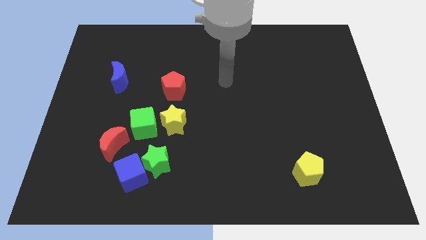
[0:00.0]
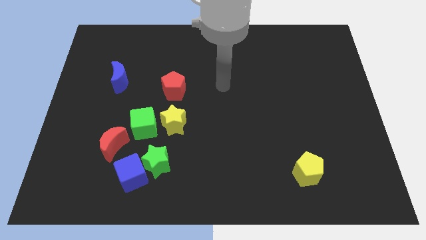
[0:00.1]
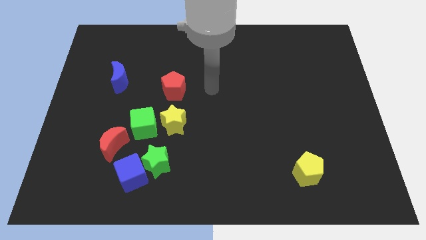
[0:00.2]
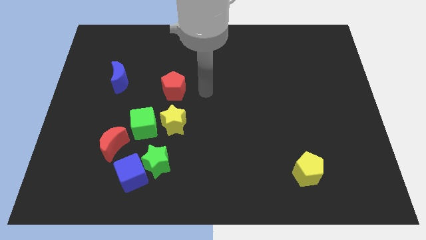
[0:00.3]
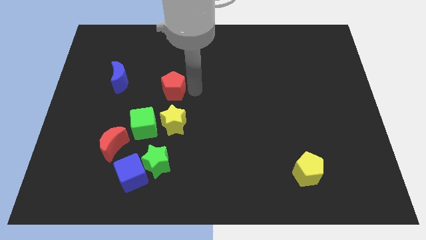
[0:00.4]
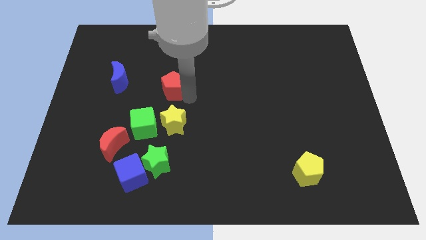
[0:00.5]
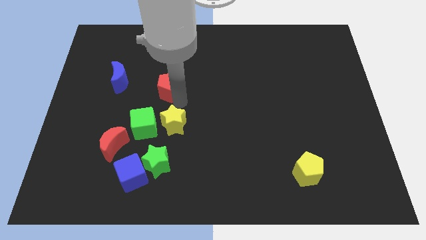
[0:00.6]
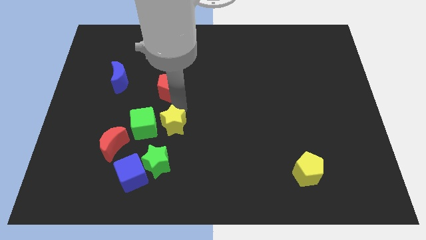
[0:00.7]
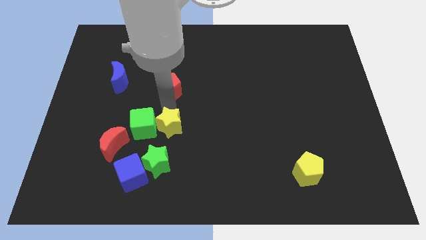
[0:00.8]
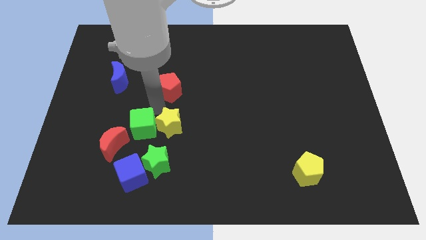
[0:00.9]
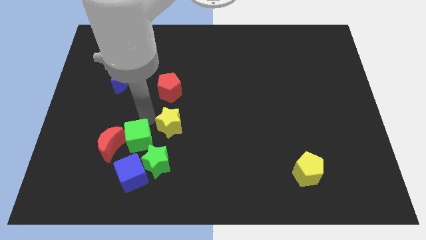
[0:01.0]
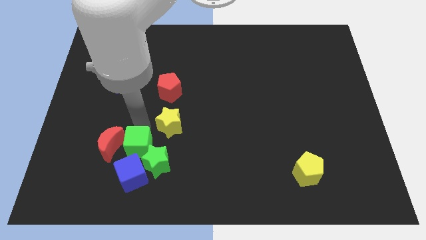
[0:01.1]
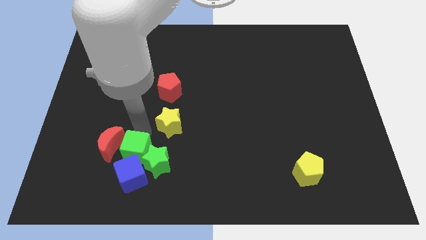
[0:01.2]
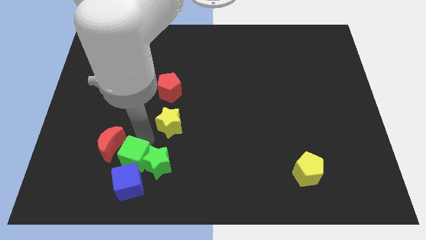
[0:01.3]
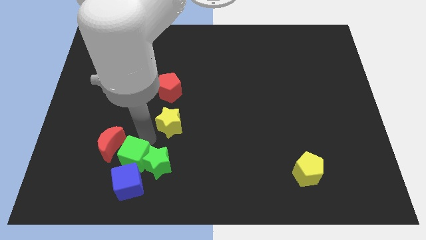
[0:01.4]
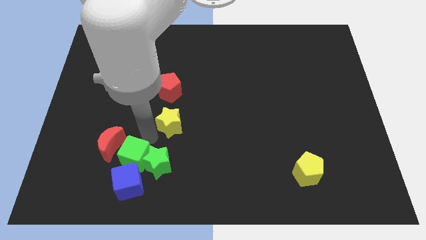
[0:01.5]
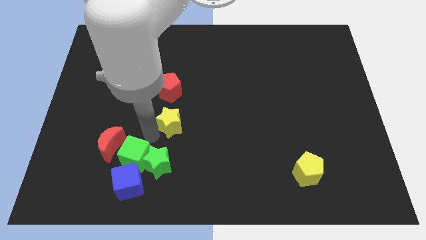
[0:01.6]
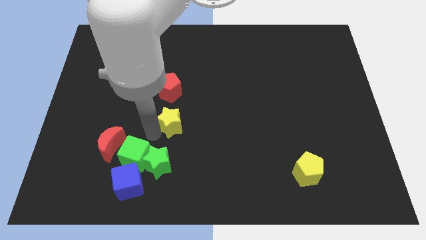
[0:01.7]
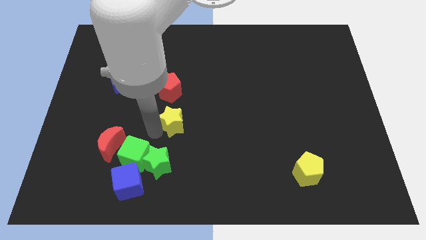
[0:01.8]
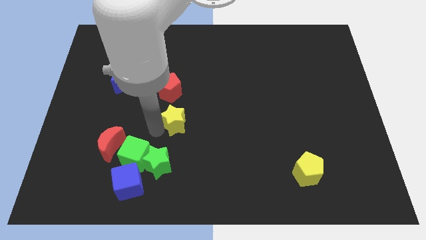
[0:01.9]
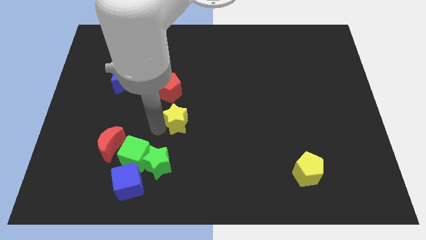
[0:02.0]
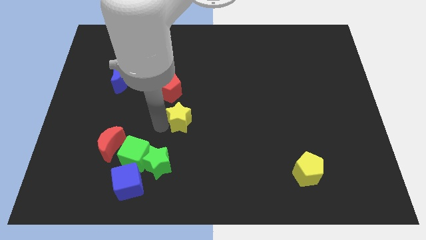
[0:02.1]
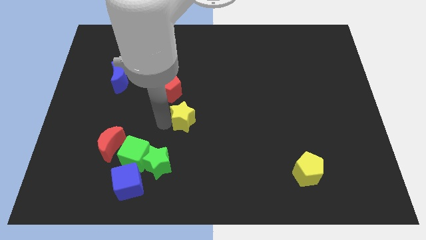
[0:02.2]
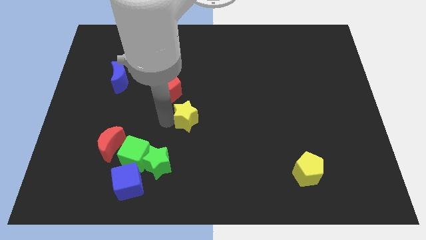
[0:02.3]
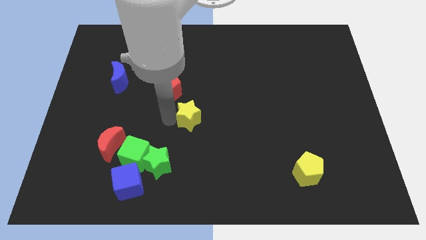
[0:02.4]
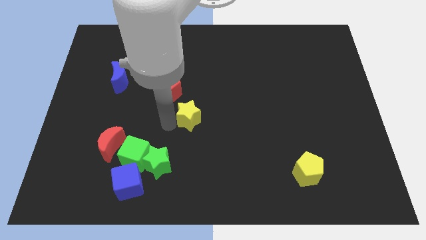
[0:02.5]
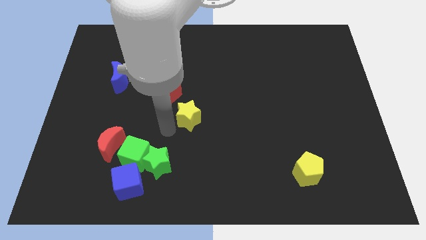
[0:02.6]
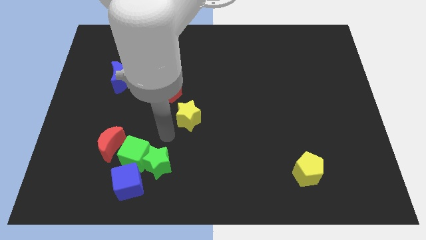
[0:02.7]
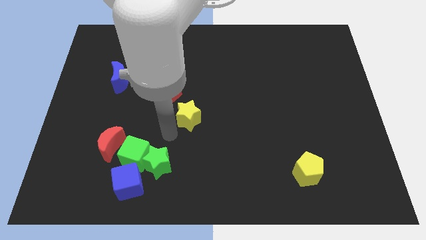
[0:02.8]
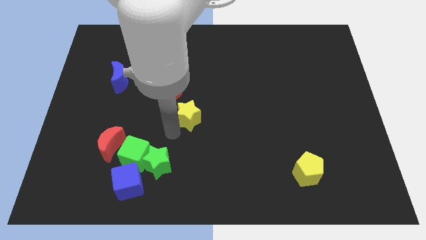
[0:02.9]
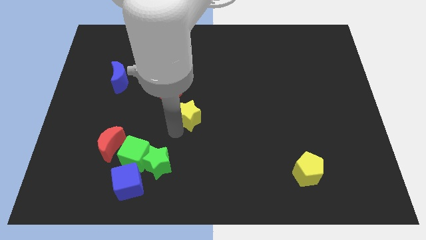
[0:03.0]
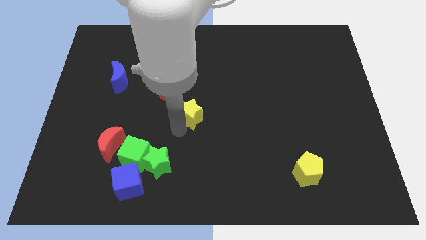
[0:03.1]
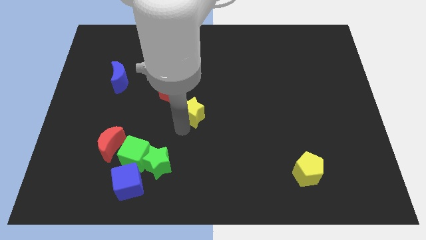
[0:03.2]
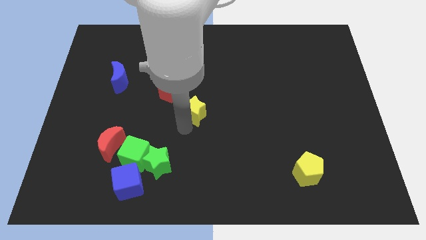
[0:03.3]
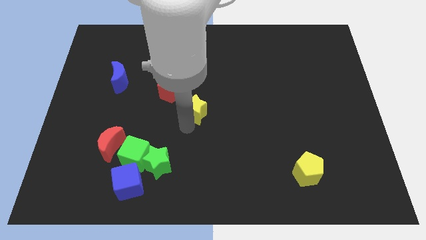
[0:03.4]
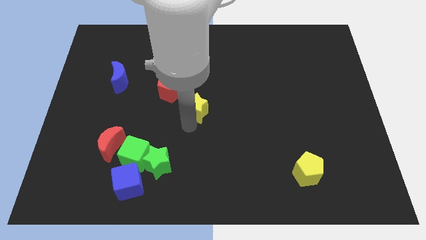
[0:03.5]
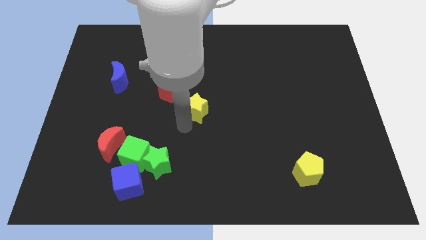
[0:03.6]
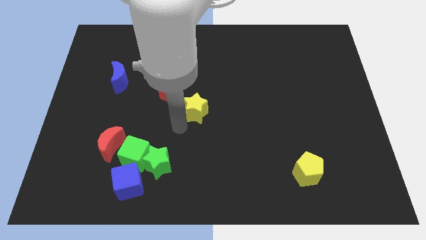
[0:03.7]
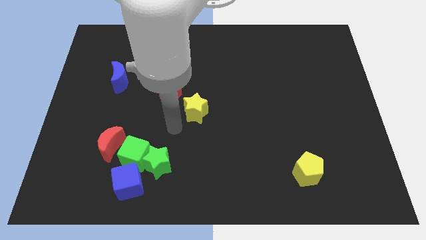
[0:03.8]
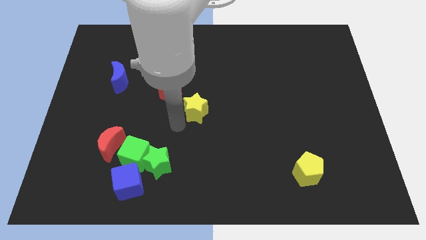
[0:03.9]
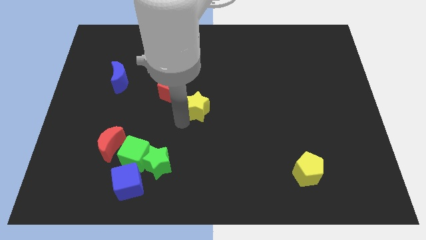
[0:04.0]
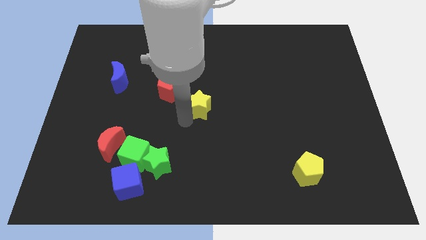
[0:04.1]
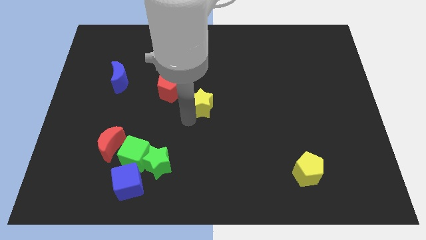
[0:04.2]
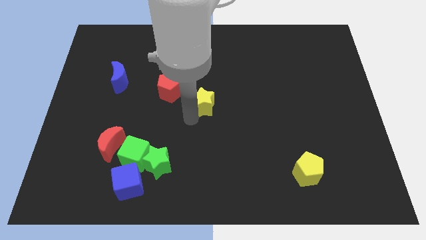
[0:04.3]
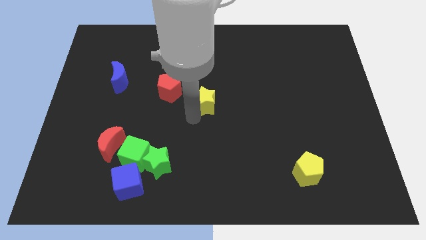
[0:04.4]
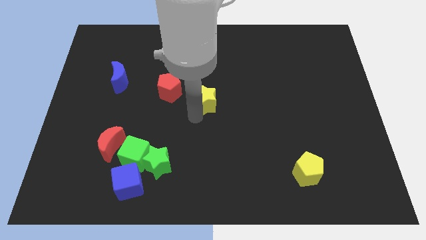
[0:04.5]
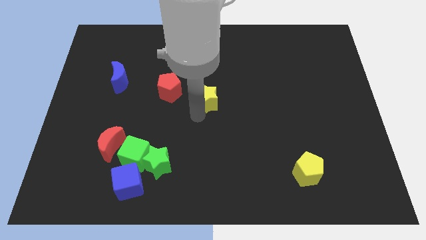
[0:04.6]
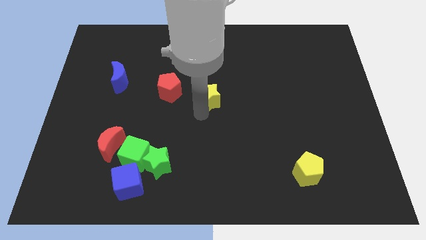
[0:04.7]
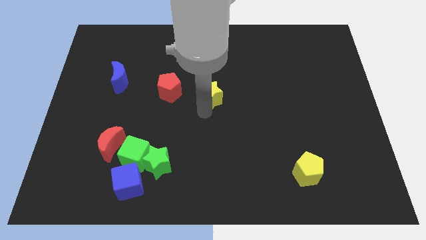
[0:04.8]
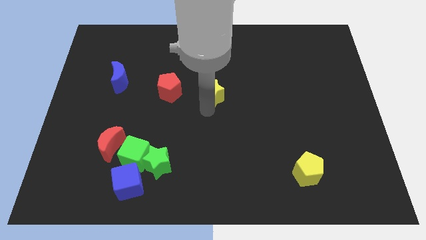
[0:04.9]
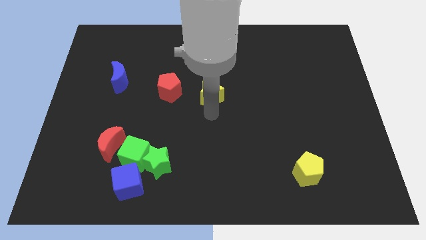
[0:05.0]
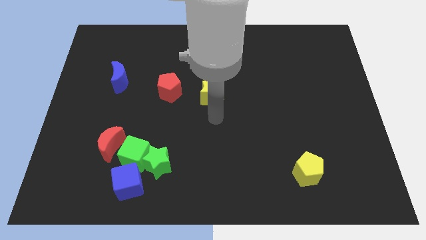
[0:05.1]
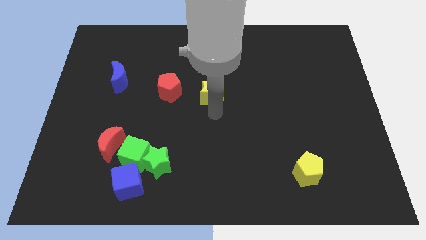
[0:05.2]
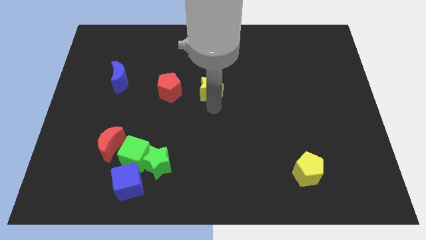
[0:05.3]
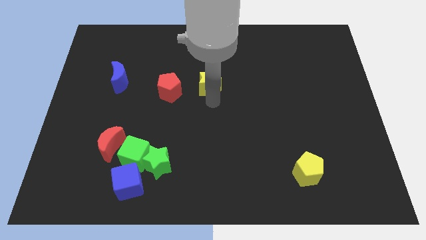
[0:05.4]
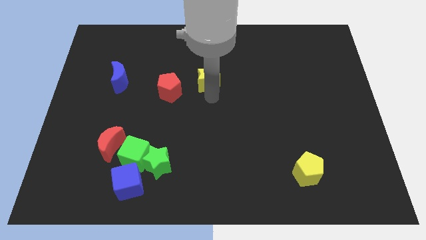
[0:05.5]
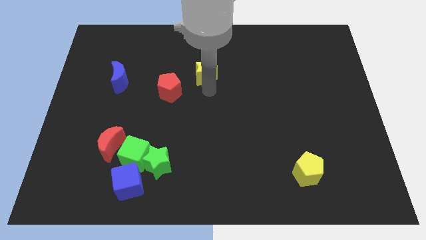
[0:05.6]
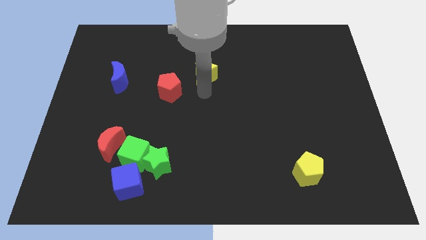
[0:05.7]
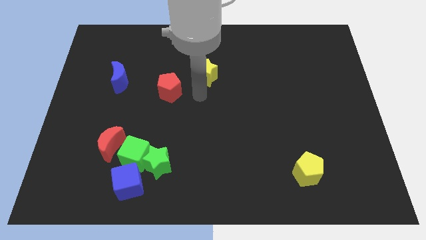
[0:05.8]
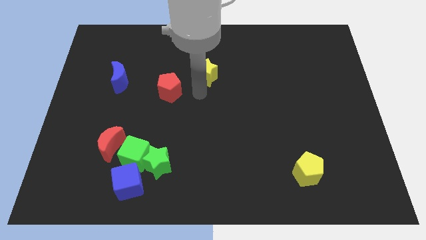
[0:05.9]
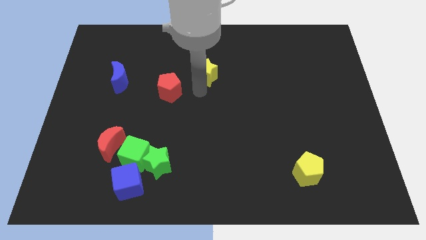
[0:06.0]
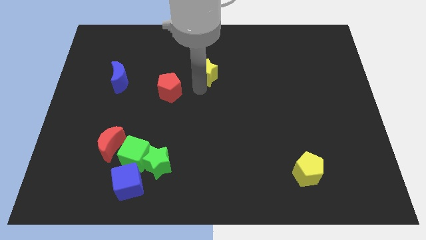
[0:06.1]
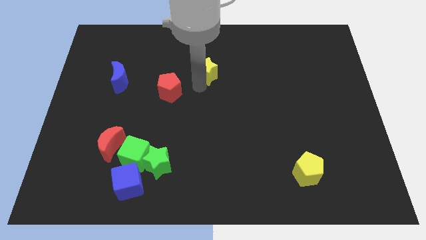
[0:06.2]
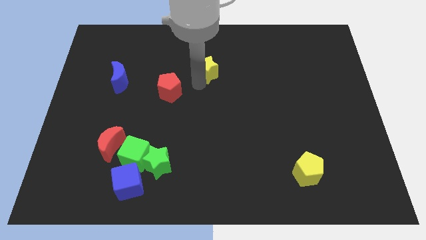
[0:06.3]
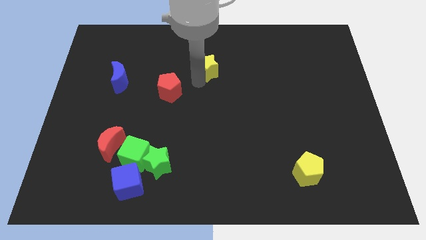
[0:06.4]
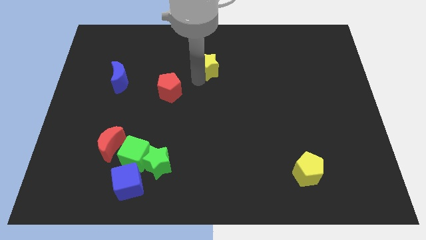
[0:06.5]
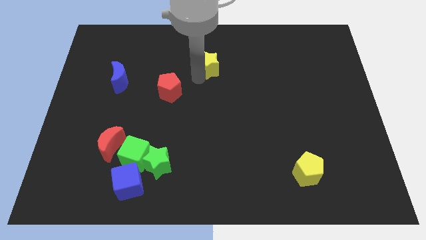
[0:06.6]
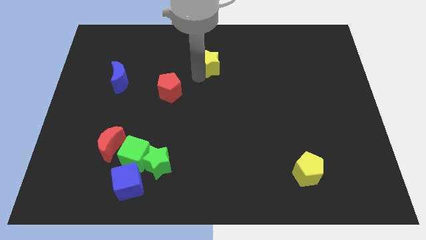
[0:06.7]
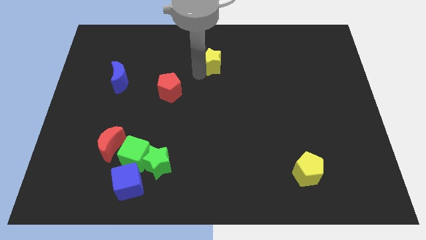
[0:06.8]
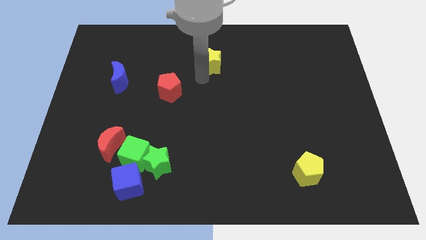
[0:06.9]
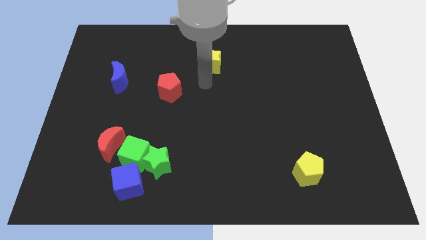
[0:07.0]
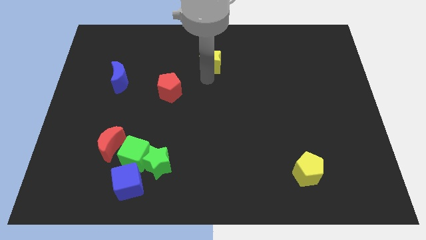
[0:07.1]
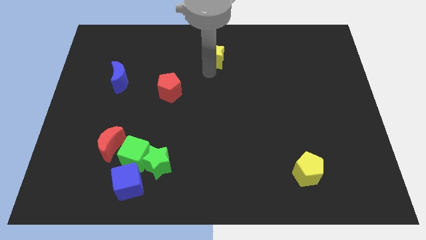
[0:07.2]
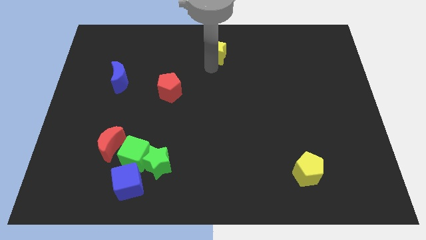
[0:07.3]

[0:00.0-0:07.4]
push the yellow star to the top side
